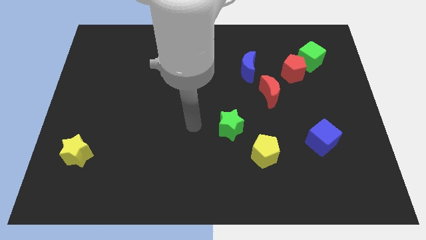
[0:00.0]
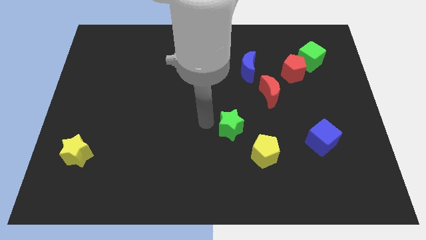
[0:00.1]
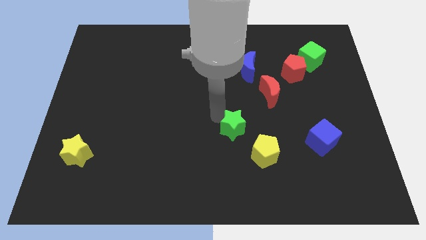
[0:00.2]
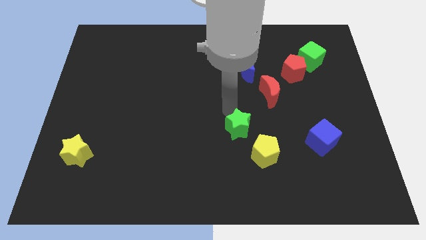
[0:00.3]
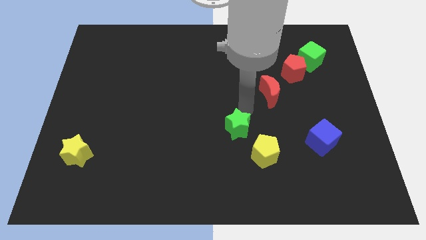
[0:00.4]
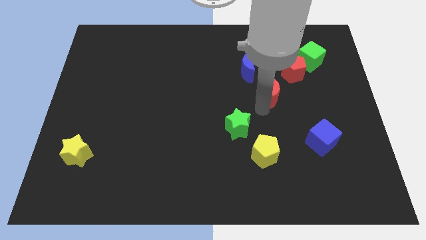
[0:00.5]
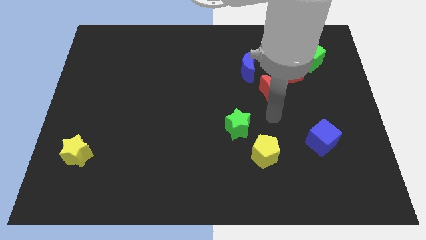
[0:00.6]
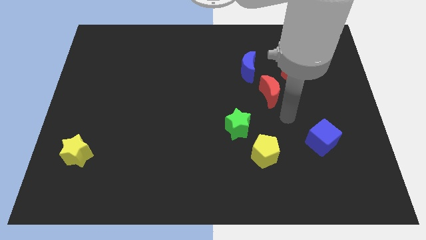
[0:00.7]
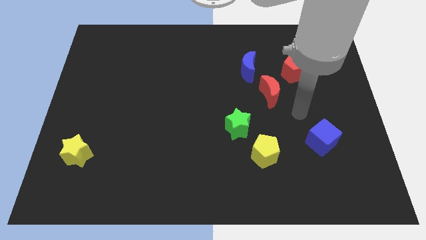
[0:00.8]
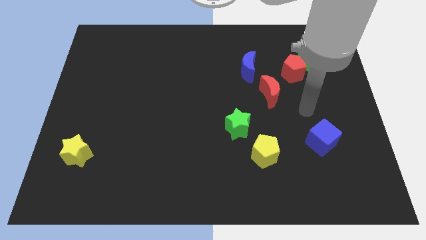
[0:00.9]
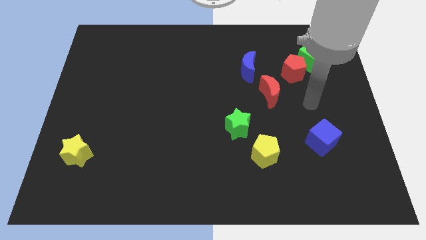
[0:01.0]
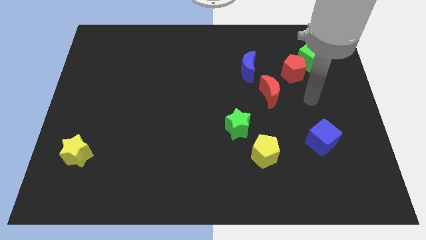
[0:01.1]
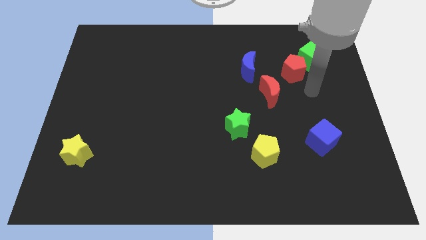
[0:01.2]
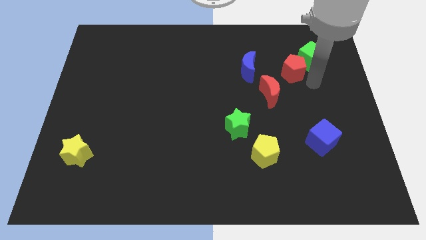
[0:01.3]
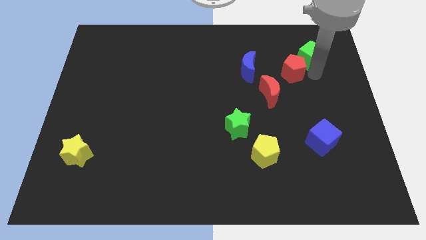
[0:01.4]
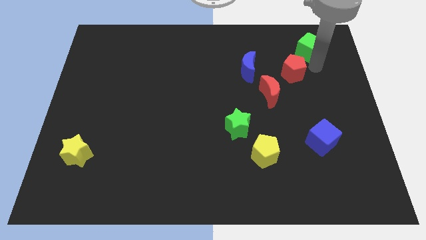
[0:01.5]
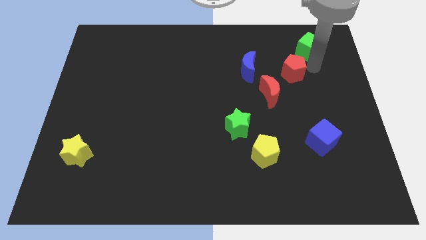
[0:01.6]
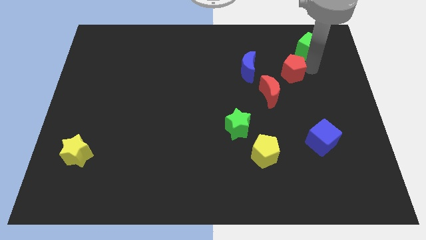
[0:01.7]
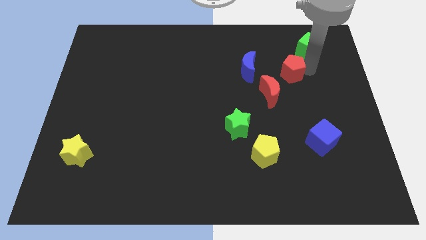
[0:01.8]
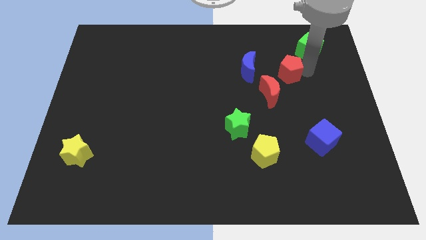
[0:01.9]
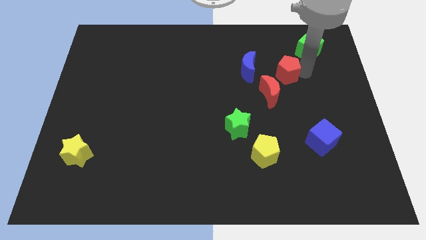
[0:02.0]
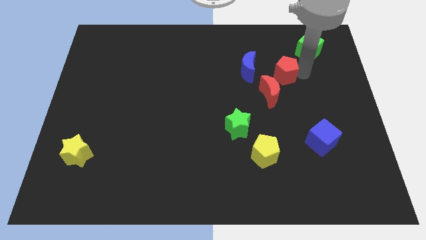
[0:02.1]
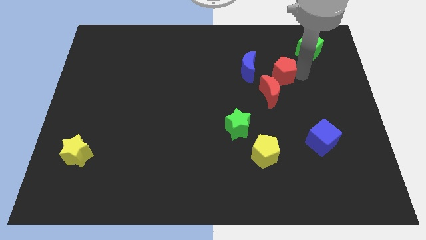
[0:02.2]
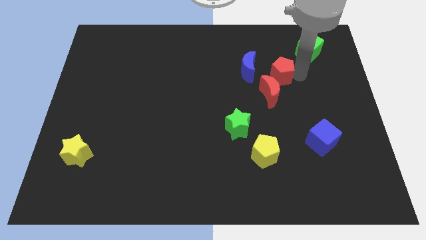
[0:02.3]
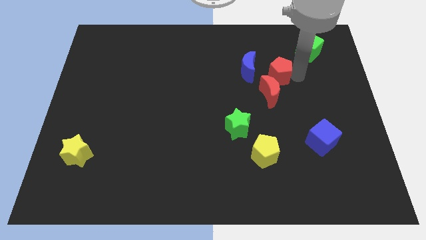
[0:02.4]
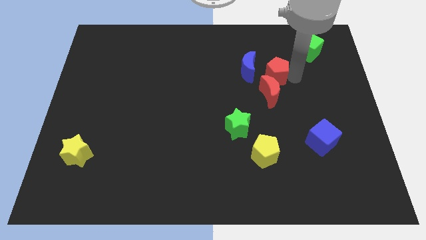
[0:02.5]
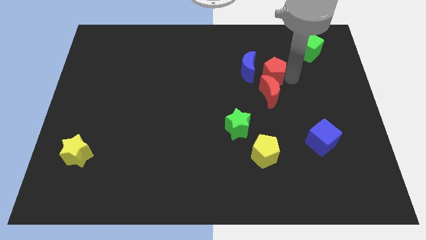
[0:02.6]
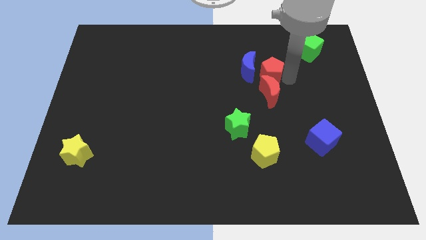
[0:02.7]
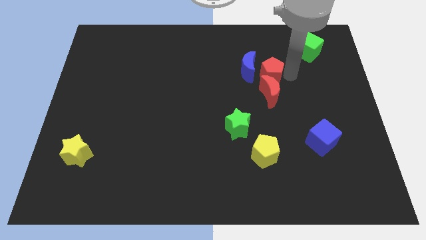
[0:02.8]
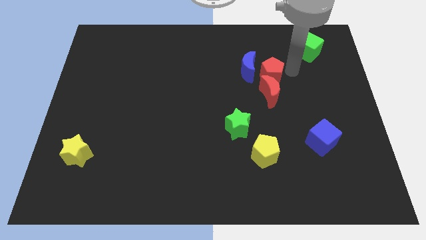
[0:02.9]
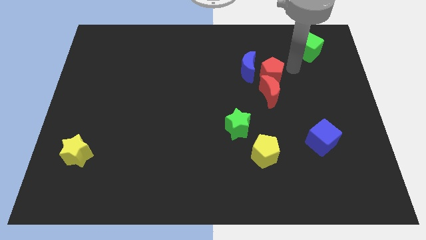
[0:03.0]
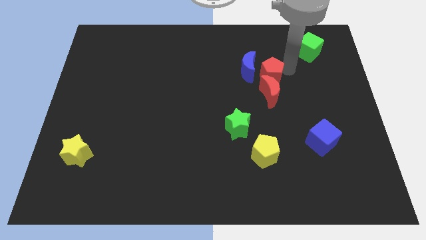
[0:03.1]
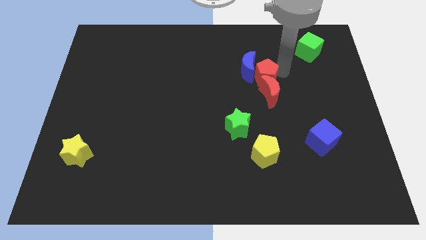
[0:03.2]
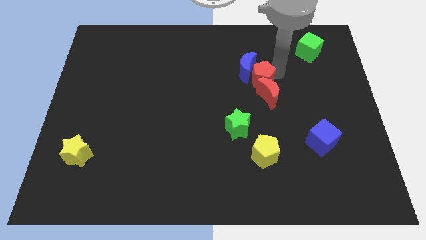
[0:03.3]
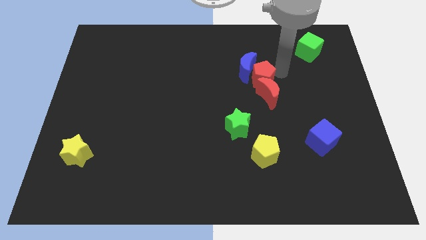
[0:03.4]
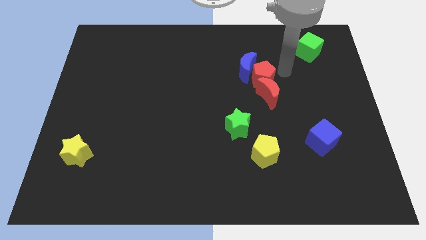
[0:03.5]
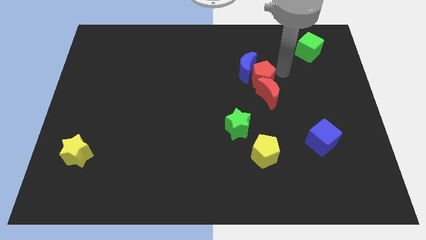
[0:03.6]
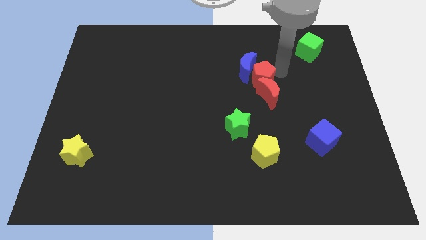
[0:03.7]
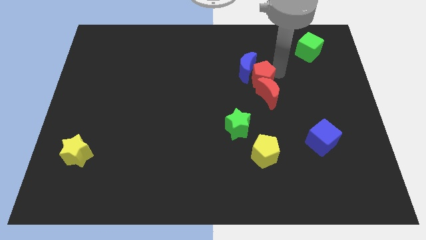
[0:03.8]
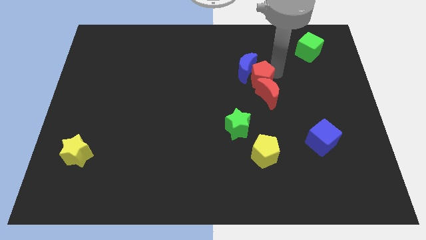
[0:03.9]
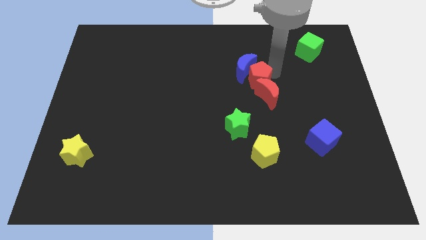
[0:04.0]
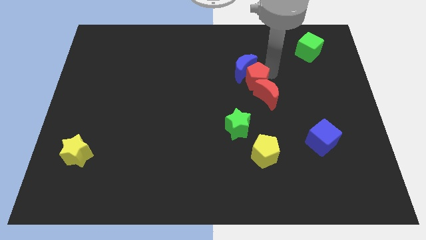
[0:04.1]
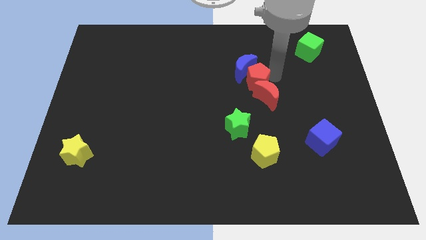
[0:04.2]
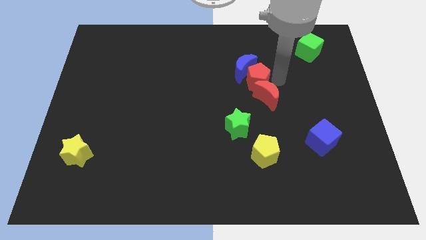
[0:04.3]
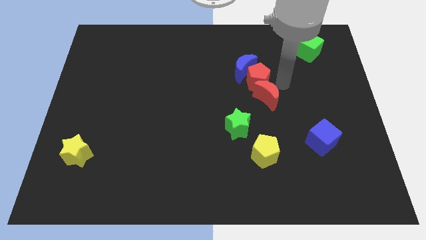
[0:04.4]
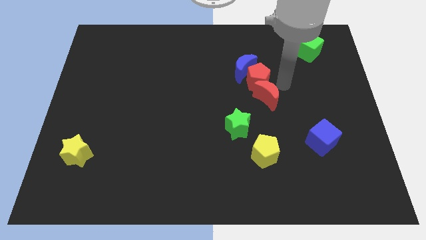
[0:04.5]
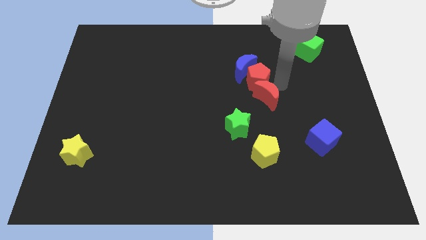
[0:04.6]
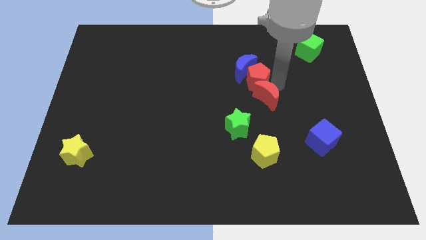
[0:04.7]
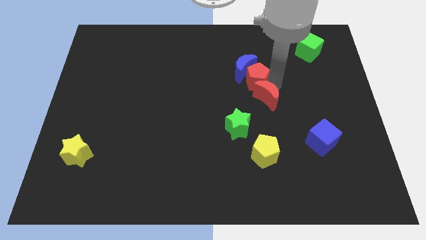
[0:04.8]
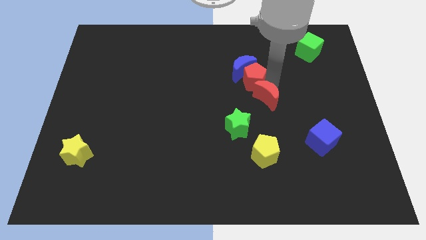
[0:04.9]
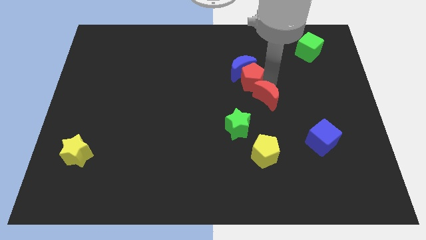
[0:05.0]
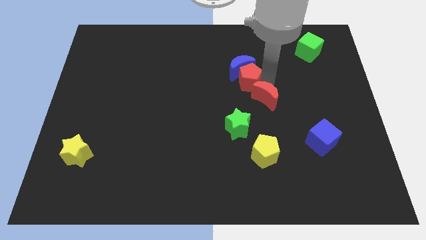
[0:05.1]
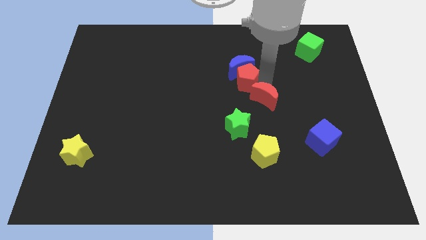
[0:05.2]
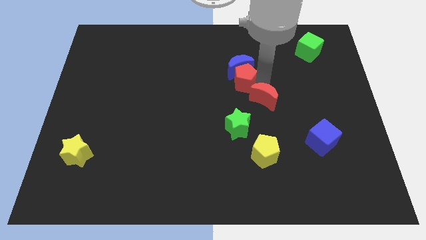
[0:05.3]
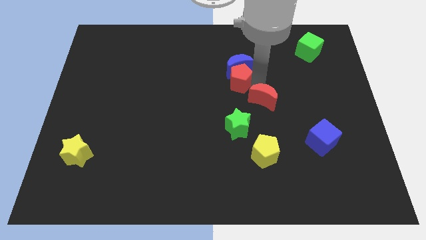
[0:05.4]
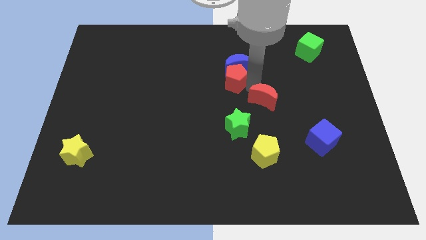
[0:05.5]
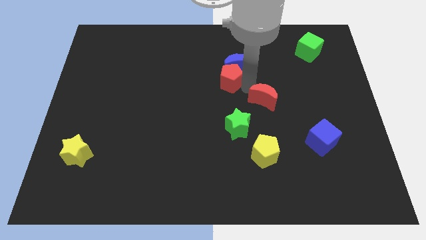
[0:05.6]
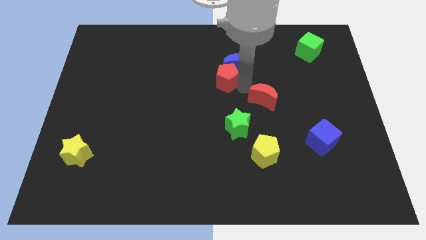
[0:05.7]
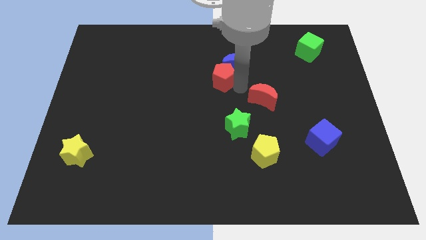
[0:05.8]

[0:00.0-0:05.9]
slide the red pentagon left of the blue moon

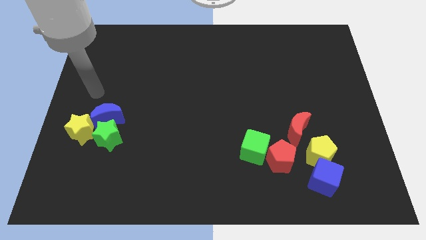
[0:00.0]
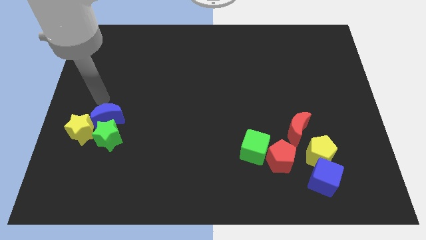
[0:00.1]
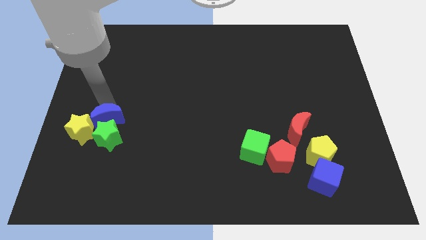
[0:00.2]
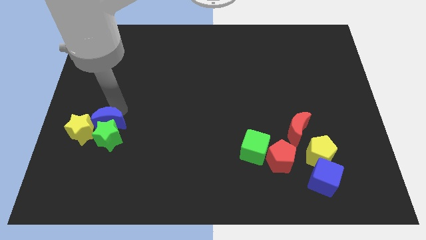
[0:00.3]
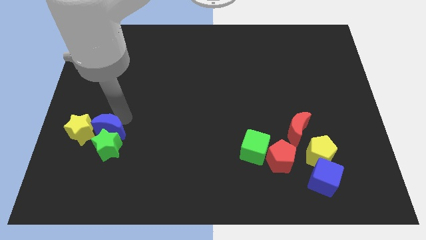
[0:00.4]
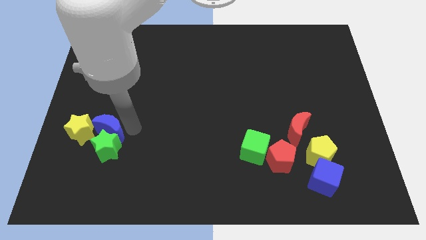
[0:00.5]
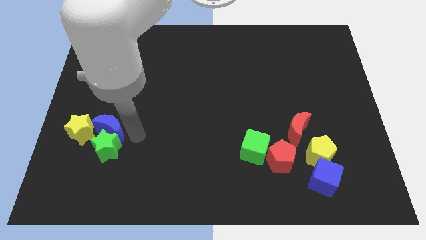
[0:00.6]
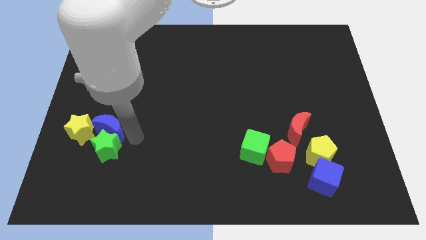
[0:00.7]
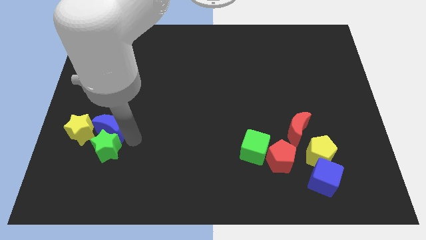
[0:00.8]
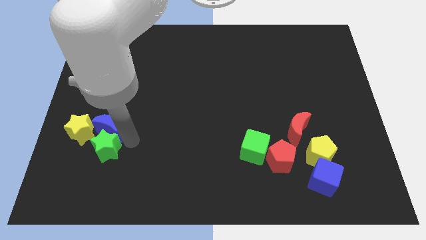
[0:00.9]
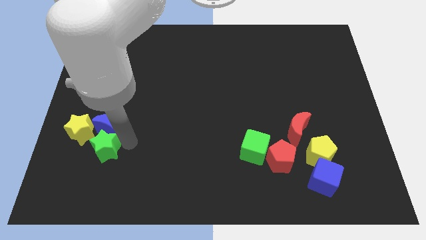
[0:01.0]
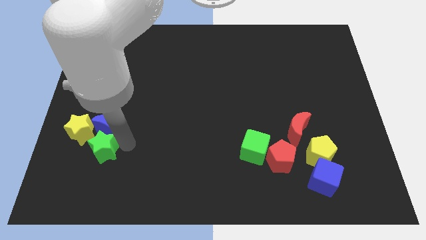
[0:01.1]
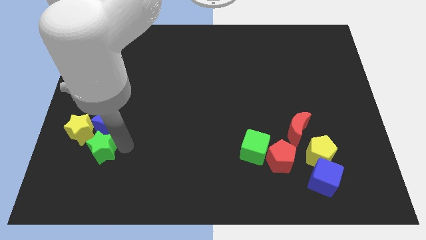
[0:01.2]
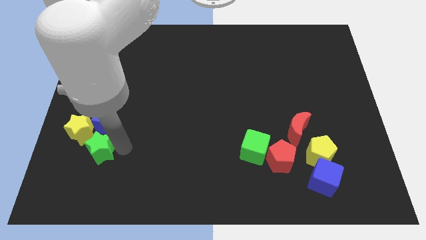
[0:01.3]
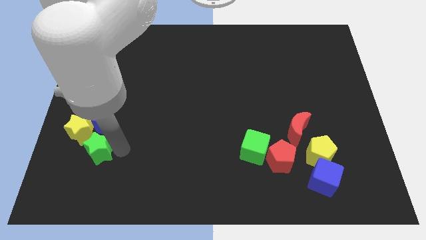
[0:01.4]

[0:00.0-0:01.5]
put the green star to the bottom side of the yellow star
